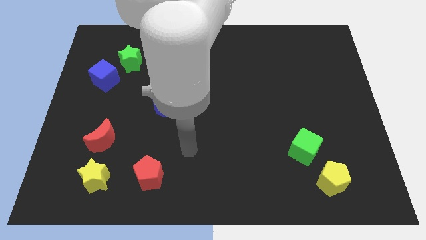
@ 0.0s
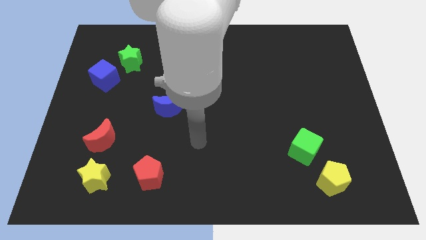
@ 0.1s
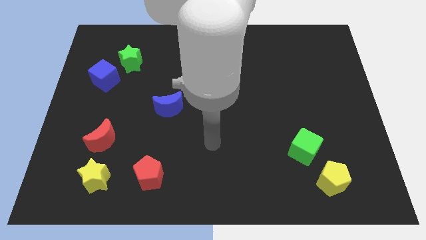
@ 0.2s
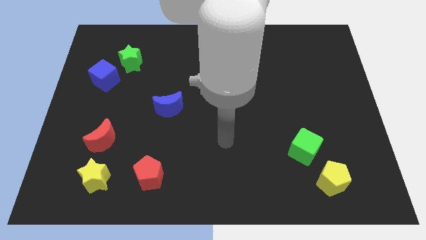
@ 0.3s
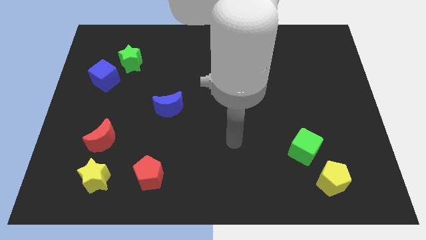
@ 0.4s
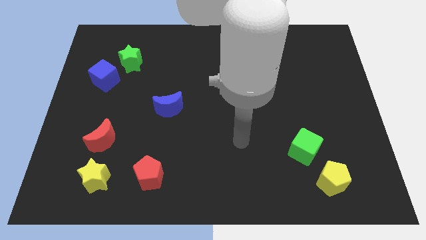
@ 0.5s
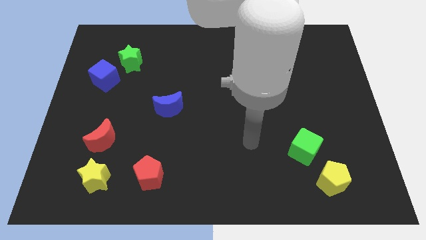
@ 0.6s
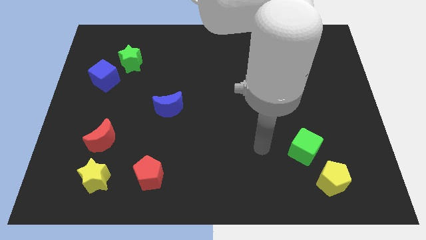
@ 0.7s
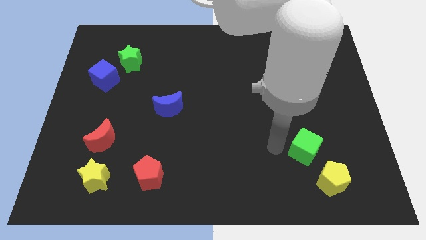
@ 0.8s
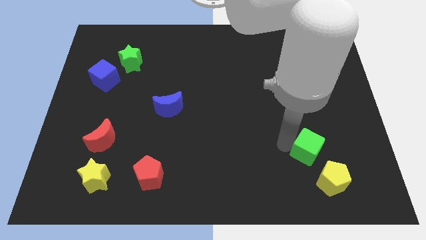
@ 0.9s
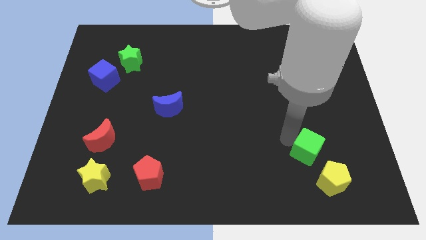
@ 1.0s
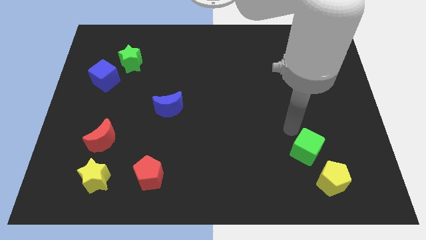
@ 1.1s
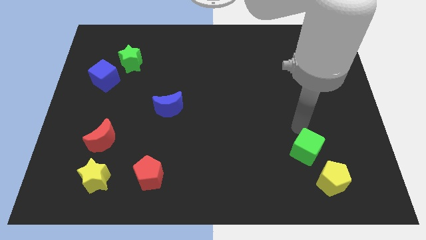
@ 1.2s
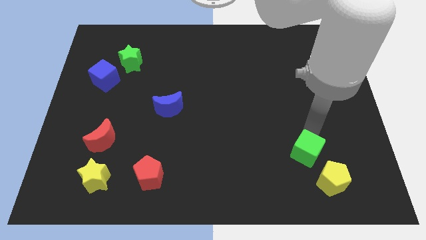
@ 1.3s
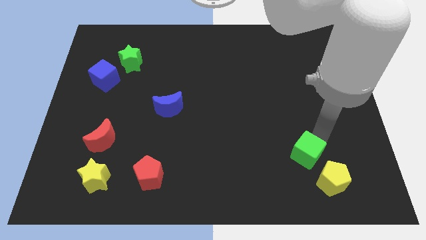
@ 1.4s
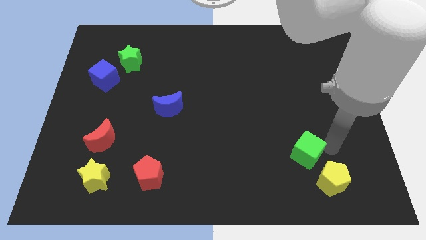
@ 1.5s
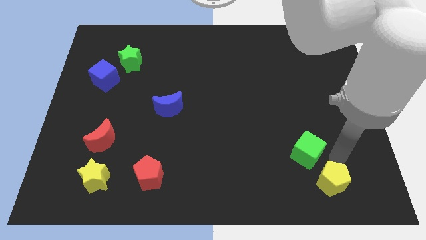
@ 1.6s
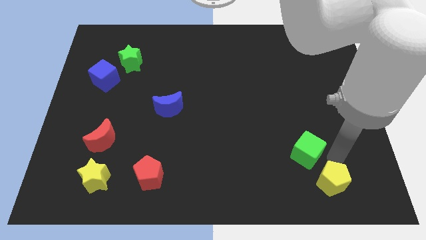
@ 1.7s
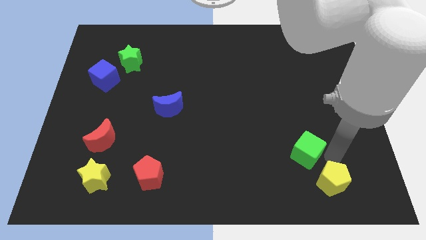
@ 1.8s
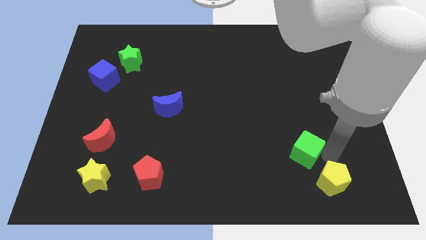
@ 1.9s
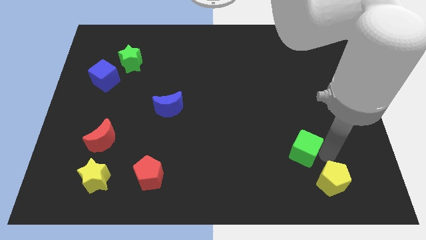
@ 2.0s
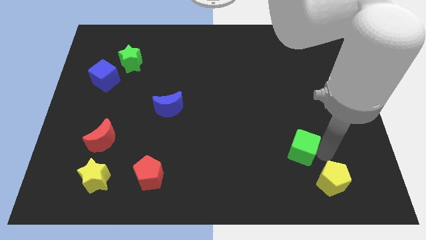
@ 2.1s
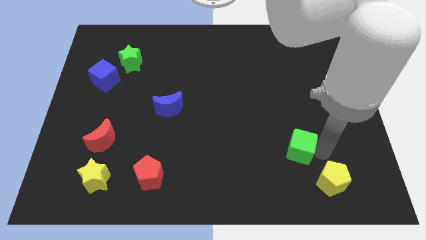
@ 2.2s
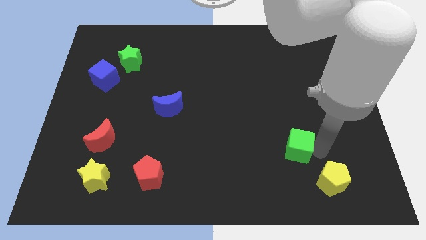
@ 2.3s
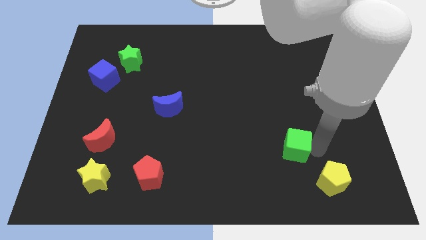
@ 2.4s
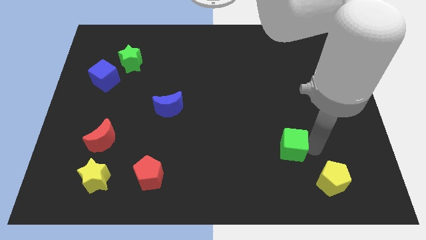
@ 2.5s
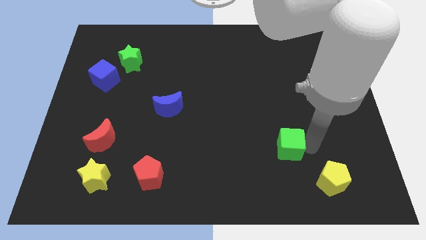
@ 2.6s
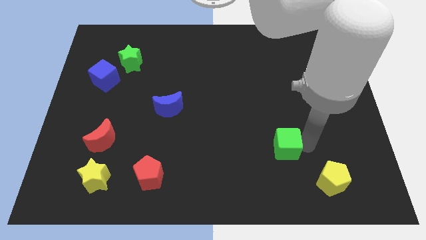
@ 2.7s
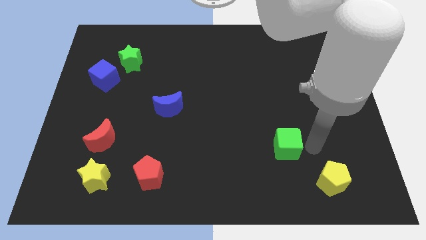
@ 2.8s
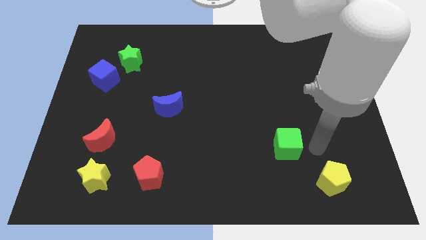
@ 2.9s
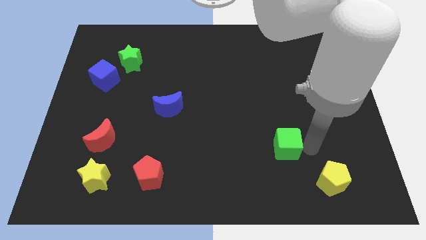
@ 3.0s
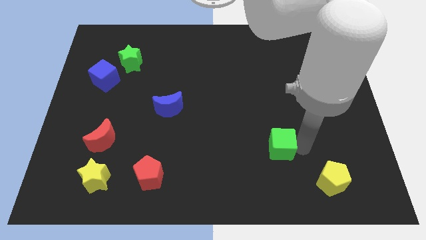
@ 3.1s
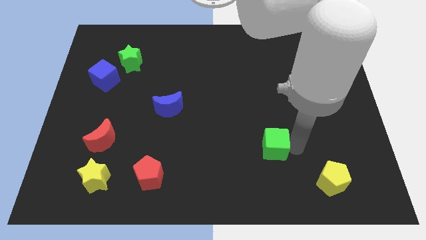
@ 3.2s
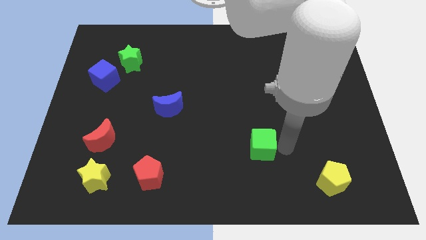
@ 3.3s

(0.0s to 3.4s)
push the green cube left slightly

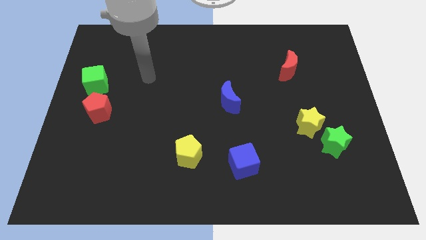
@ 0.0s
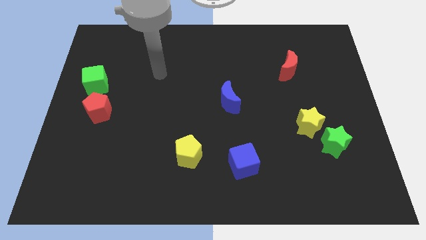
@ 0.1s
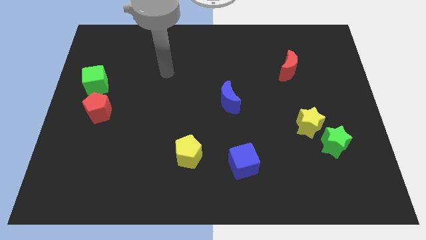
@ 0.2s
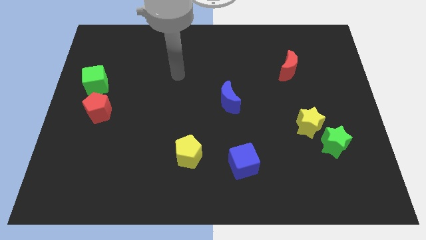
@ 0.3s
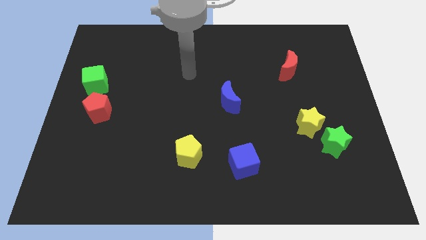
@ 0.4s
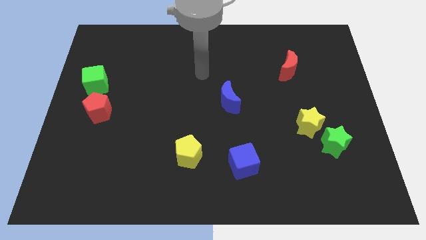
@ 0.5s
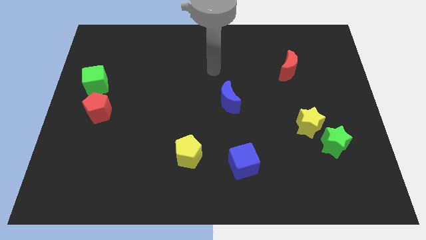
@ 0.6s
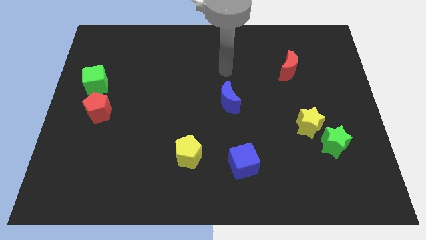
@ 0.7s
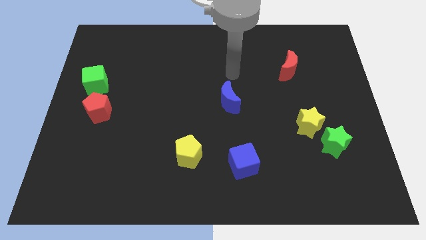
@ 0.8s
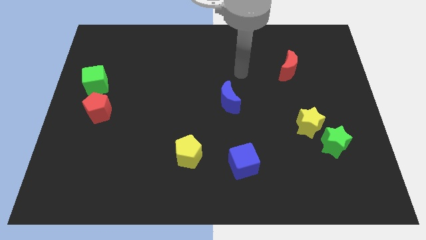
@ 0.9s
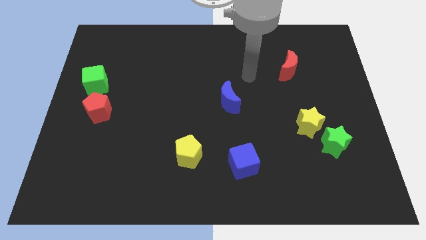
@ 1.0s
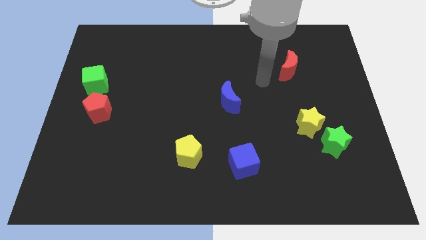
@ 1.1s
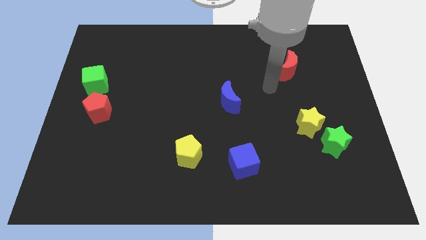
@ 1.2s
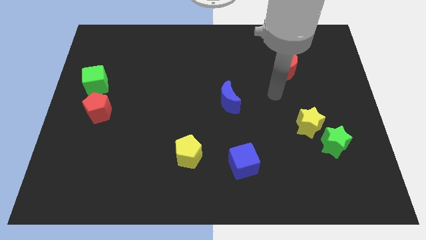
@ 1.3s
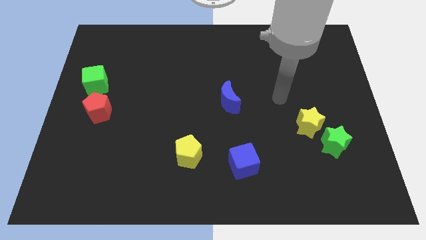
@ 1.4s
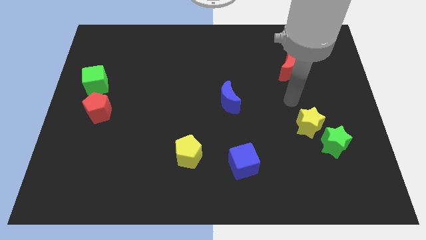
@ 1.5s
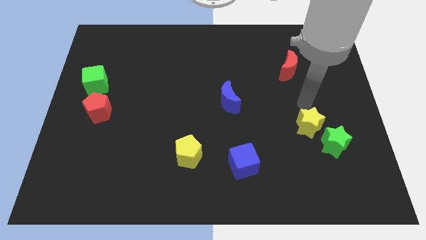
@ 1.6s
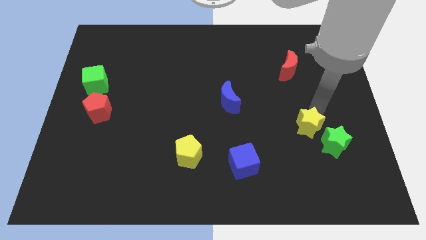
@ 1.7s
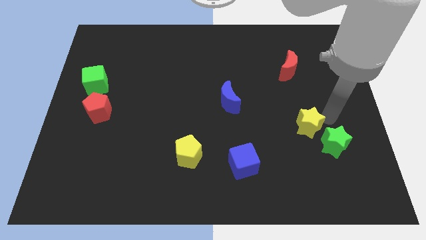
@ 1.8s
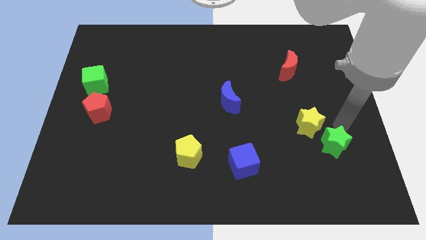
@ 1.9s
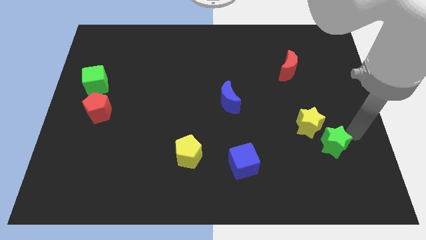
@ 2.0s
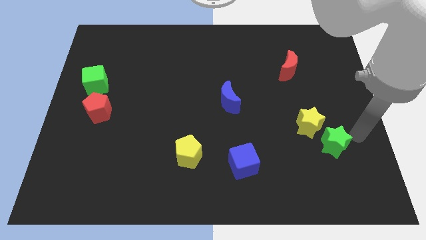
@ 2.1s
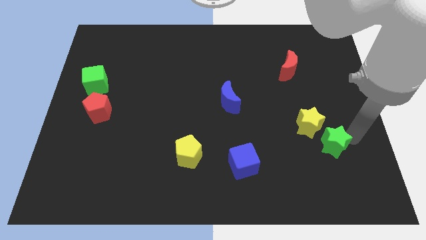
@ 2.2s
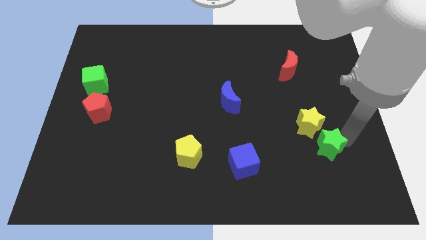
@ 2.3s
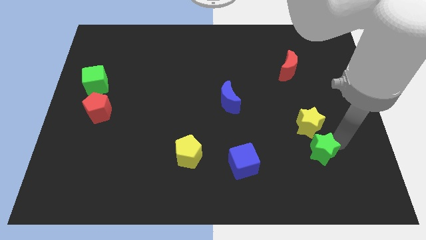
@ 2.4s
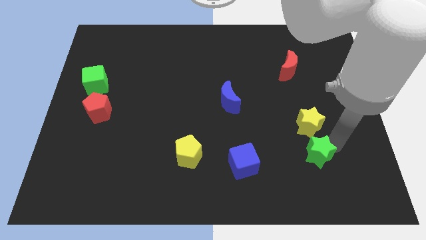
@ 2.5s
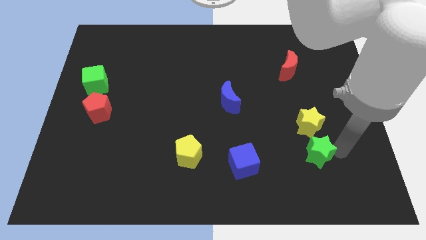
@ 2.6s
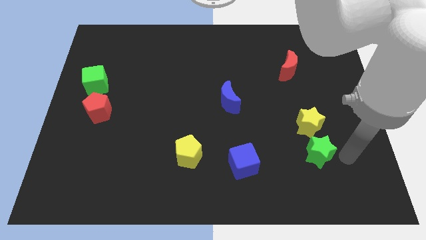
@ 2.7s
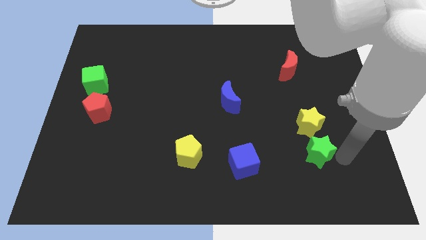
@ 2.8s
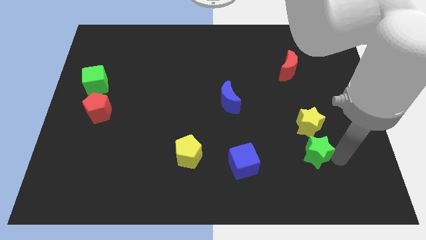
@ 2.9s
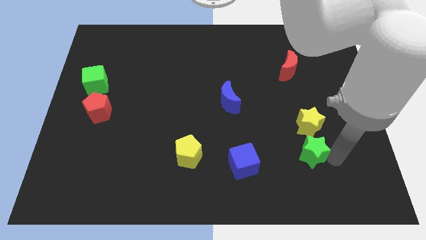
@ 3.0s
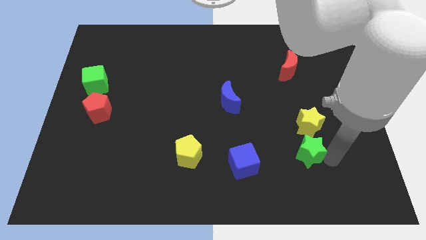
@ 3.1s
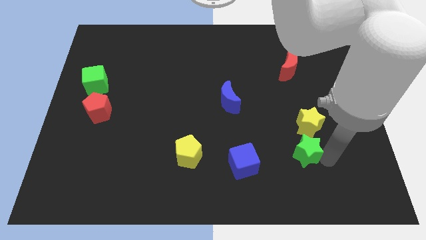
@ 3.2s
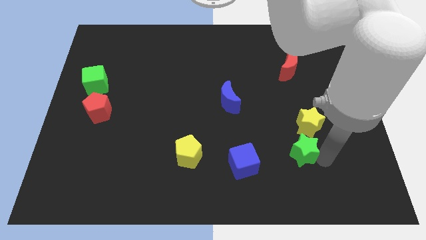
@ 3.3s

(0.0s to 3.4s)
slightly push the green star left

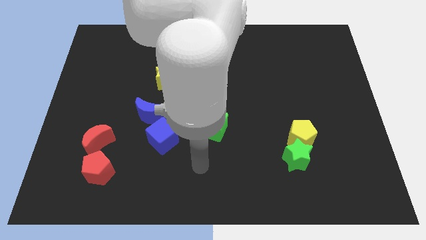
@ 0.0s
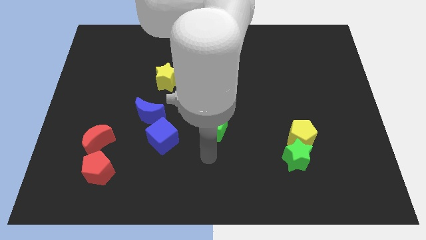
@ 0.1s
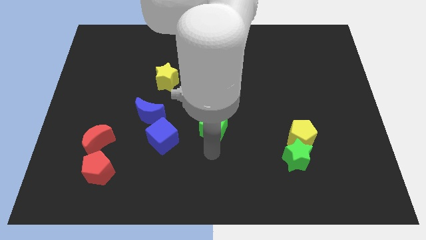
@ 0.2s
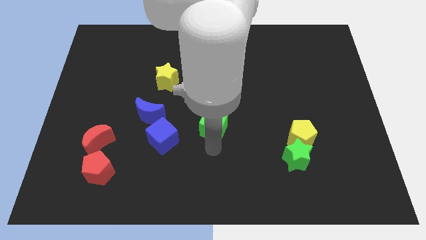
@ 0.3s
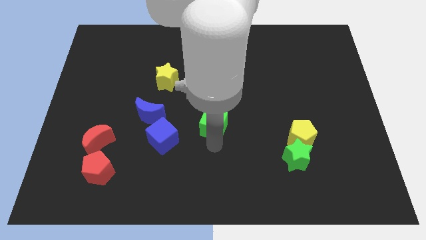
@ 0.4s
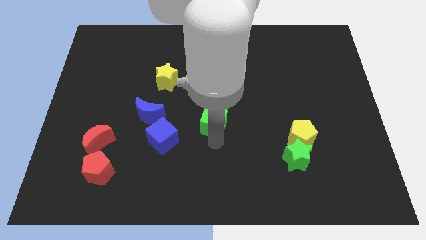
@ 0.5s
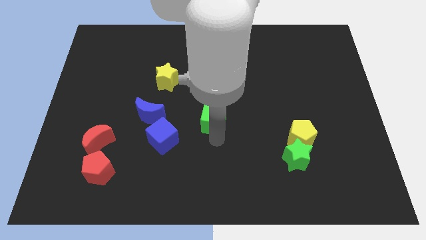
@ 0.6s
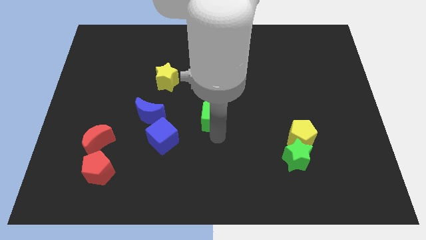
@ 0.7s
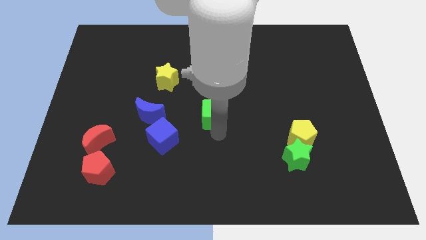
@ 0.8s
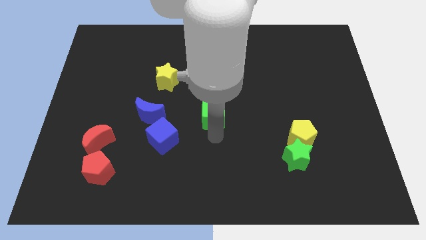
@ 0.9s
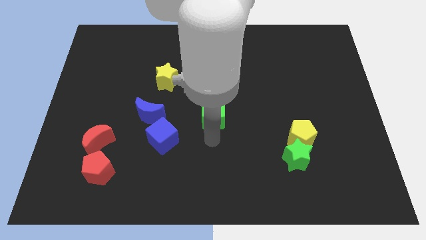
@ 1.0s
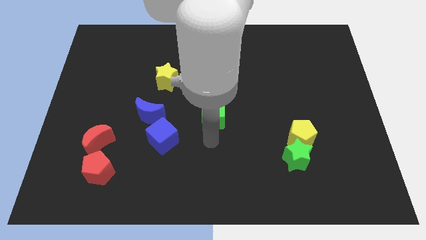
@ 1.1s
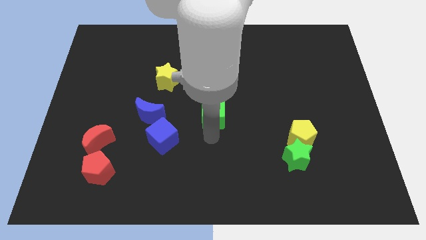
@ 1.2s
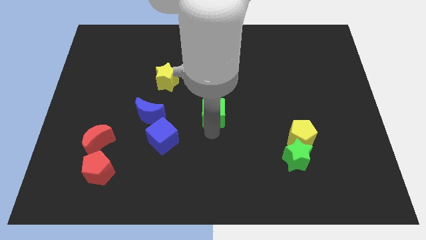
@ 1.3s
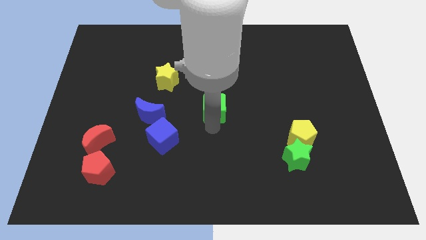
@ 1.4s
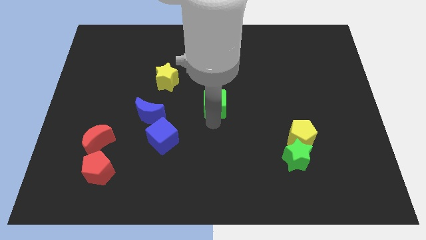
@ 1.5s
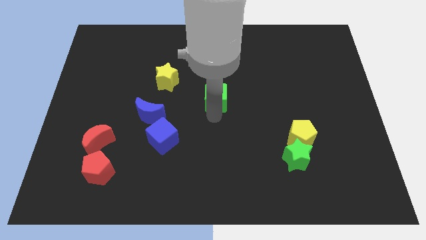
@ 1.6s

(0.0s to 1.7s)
move the green cube slightly up
